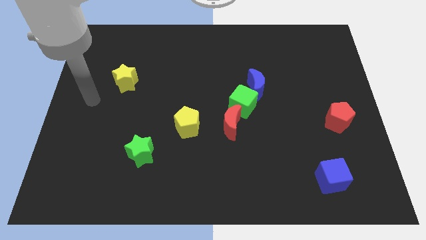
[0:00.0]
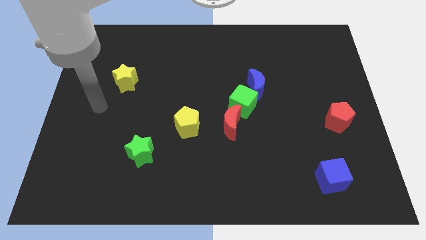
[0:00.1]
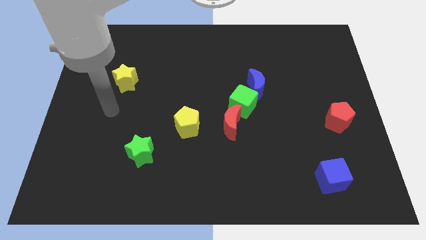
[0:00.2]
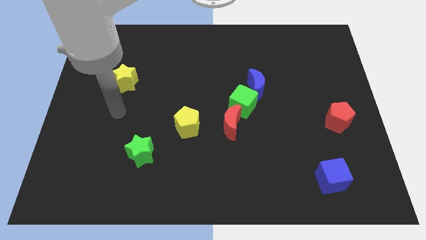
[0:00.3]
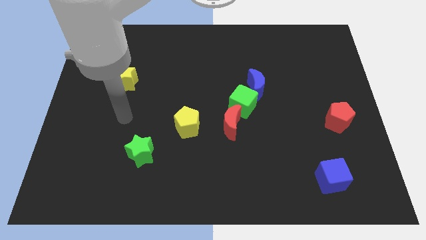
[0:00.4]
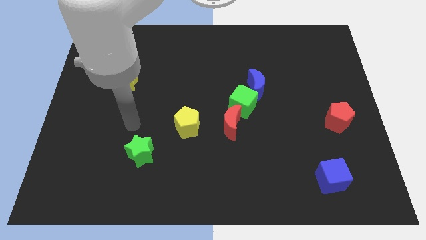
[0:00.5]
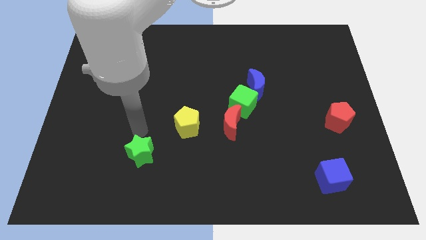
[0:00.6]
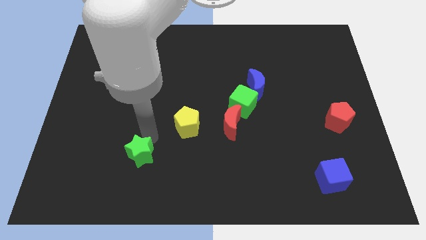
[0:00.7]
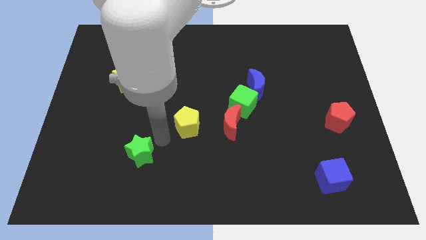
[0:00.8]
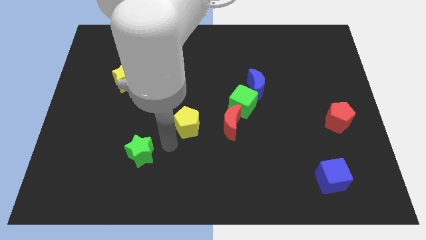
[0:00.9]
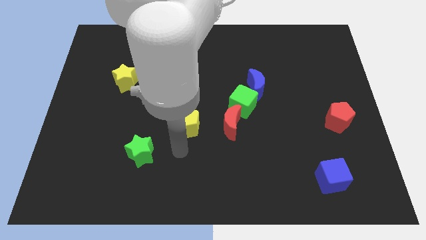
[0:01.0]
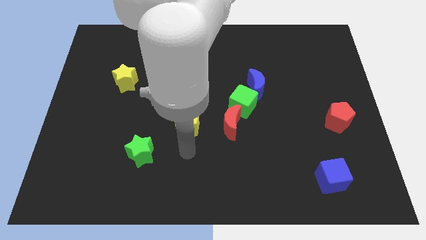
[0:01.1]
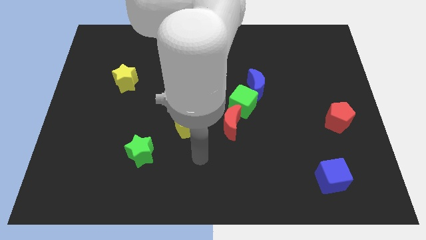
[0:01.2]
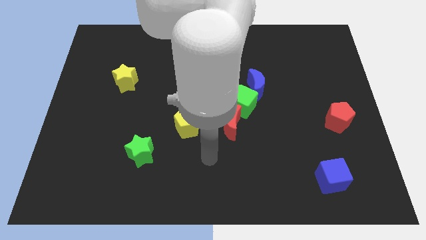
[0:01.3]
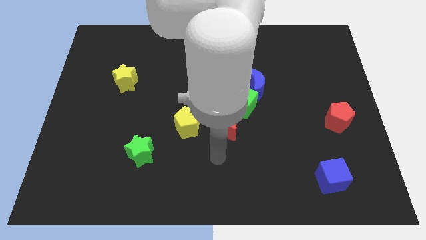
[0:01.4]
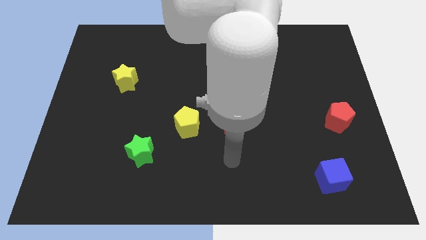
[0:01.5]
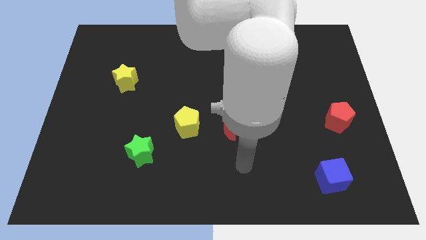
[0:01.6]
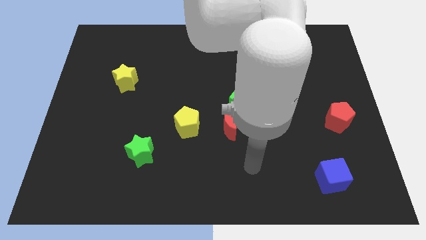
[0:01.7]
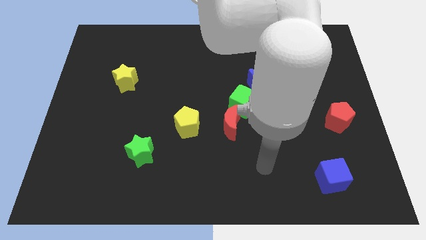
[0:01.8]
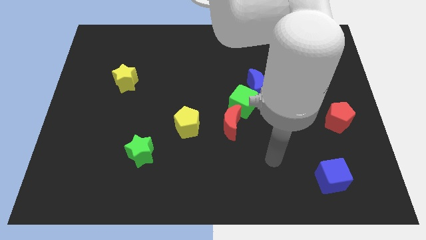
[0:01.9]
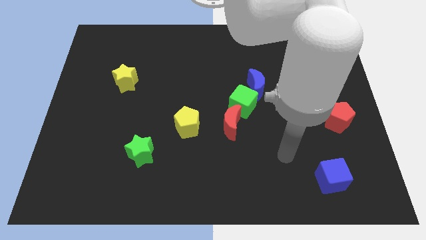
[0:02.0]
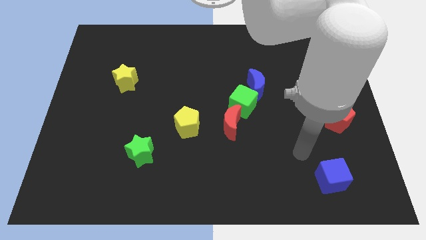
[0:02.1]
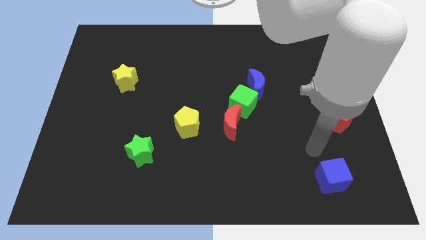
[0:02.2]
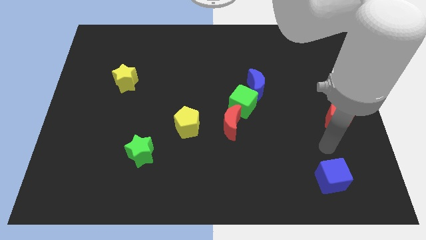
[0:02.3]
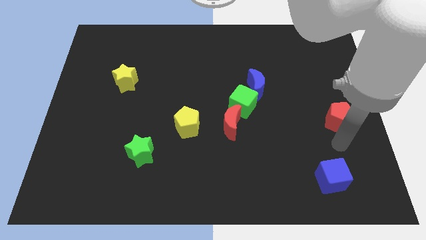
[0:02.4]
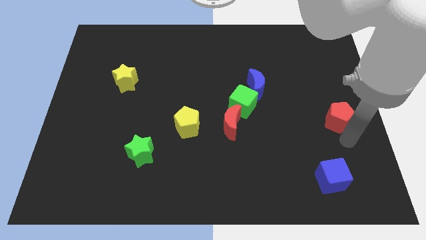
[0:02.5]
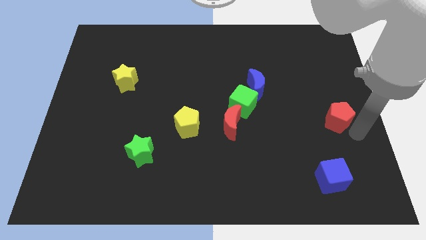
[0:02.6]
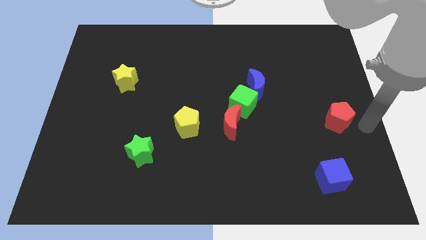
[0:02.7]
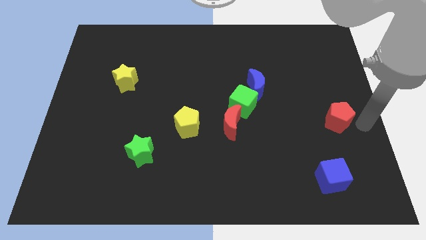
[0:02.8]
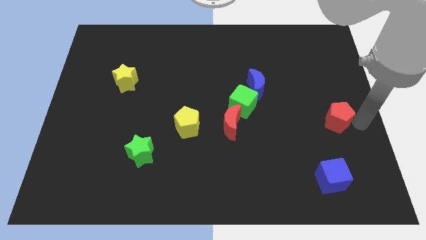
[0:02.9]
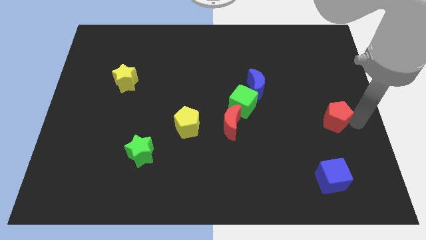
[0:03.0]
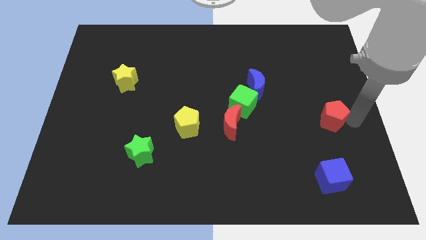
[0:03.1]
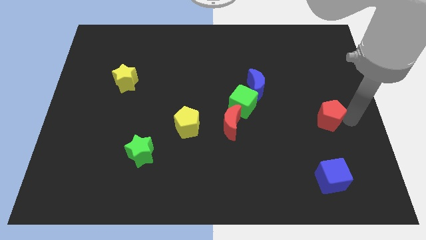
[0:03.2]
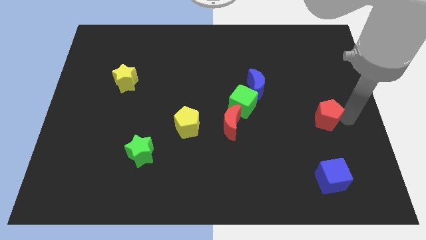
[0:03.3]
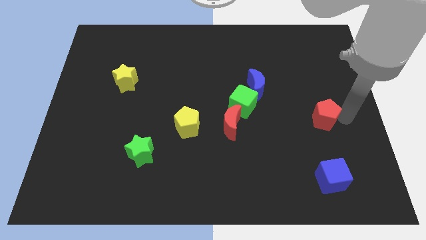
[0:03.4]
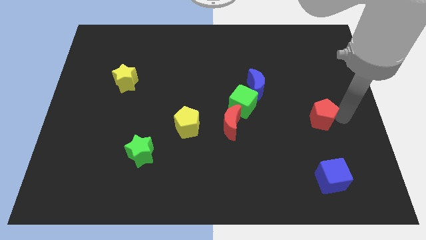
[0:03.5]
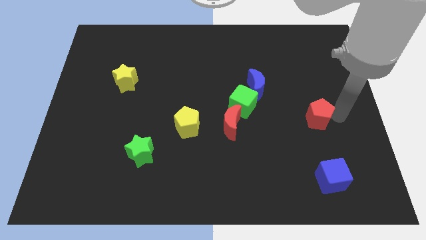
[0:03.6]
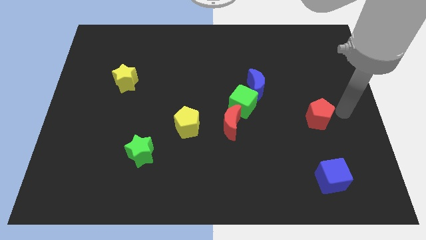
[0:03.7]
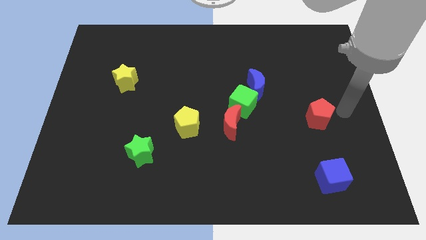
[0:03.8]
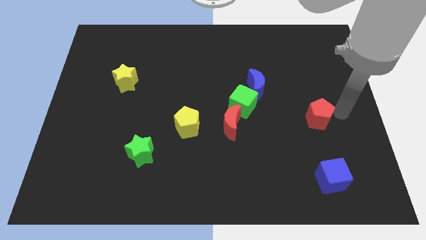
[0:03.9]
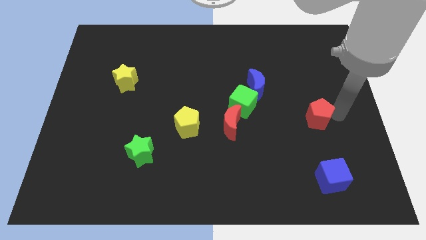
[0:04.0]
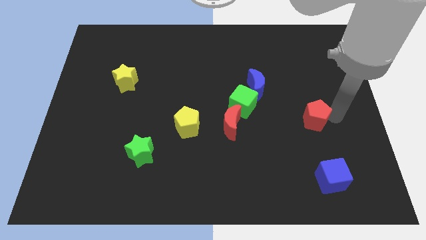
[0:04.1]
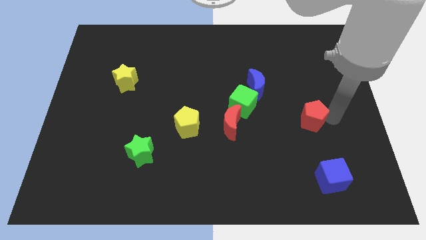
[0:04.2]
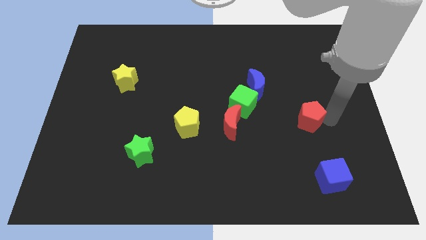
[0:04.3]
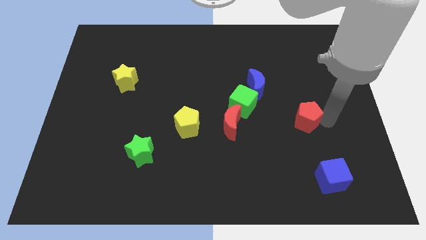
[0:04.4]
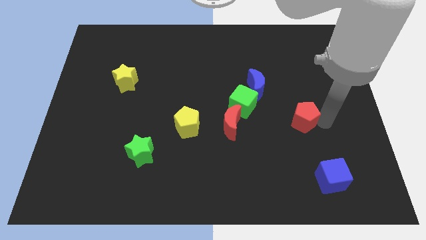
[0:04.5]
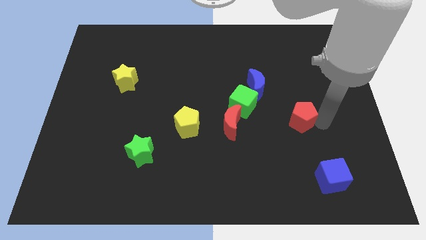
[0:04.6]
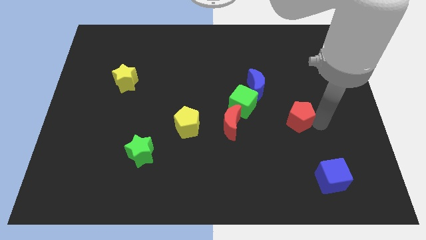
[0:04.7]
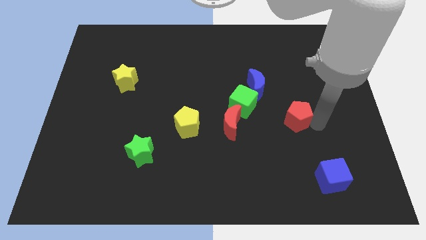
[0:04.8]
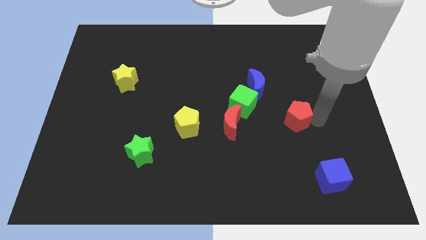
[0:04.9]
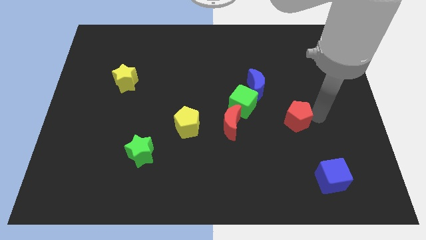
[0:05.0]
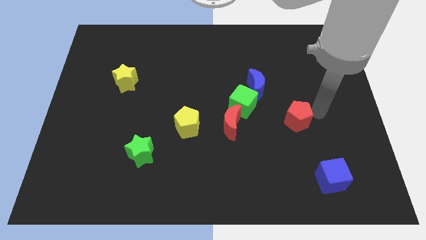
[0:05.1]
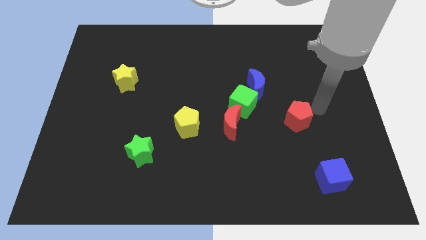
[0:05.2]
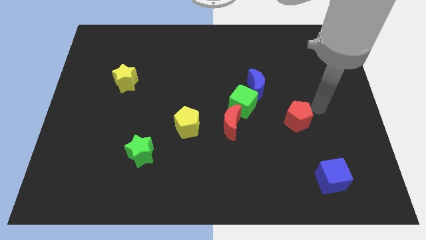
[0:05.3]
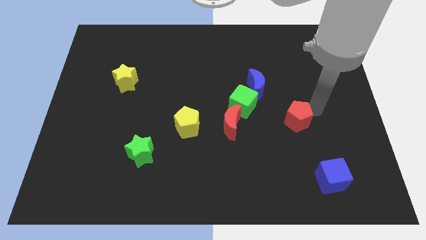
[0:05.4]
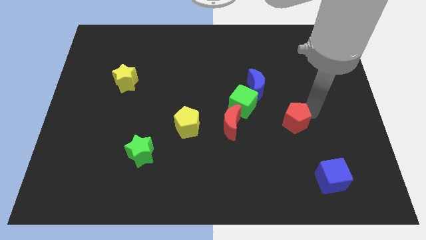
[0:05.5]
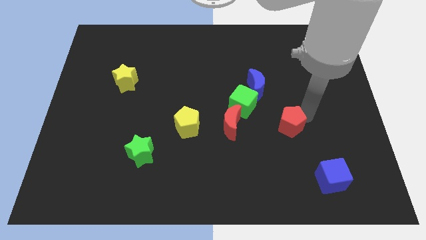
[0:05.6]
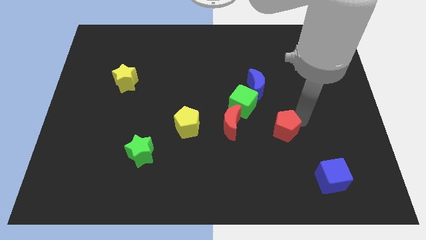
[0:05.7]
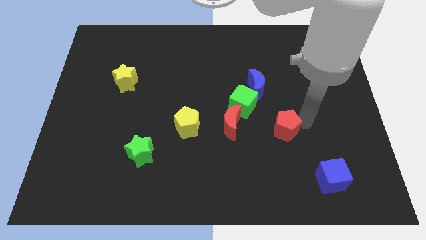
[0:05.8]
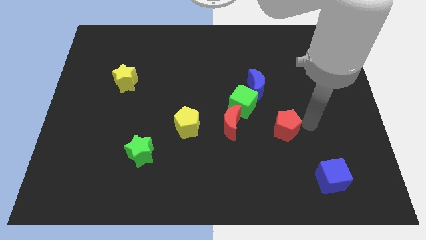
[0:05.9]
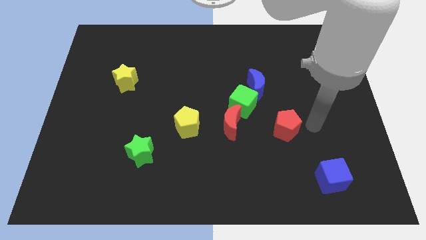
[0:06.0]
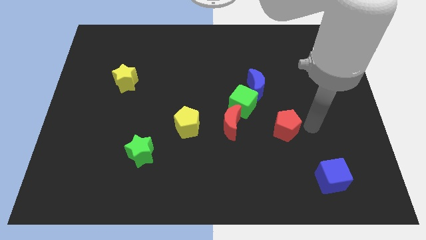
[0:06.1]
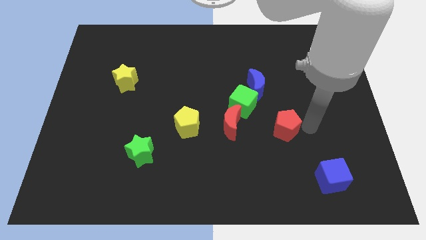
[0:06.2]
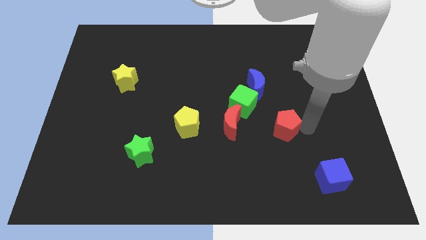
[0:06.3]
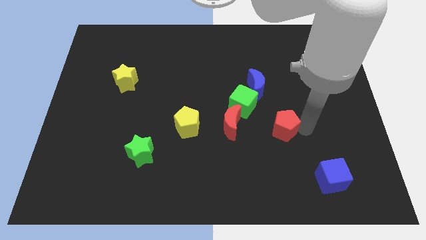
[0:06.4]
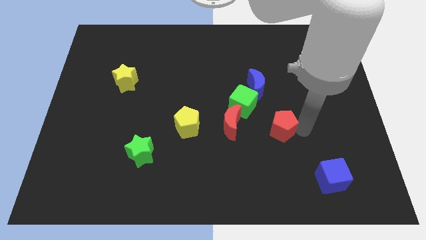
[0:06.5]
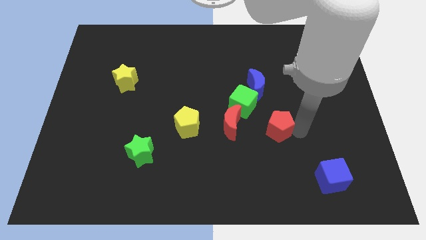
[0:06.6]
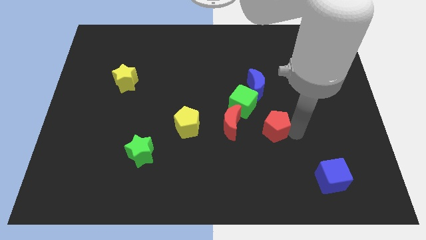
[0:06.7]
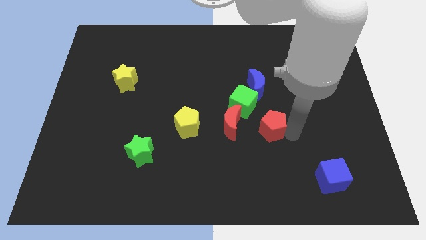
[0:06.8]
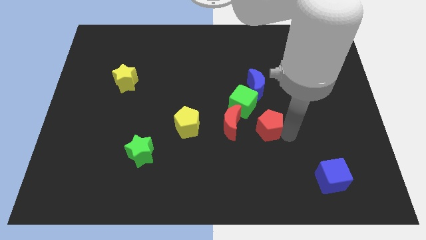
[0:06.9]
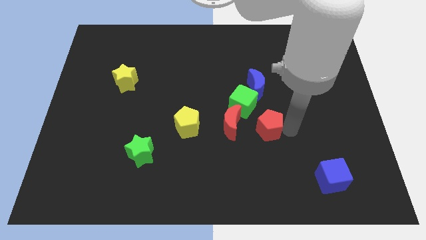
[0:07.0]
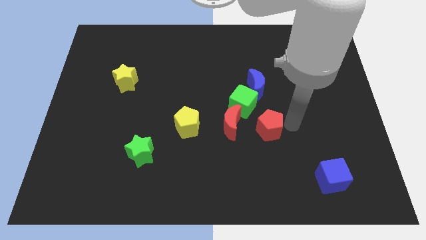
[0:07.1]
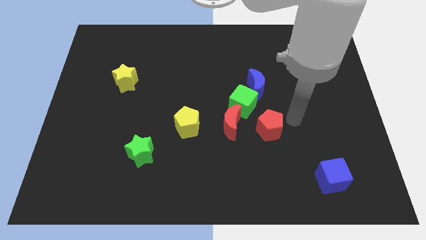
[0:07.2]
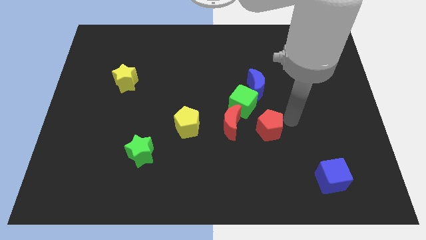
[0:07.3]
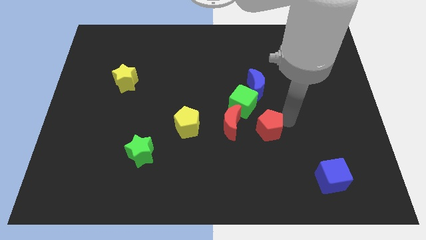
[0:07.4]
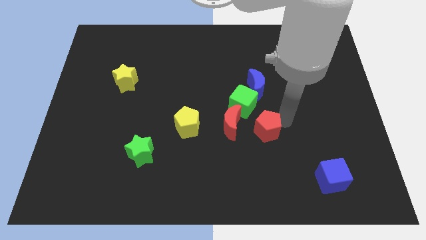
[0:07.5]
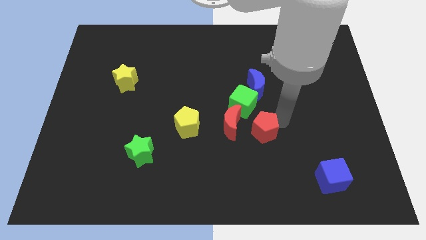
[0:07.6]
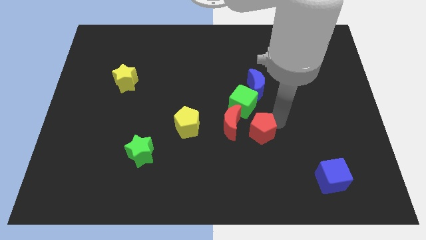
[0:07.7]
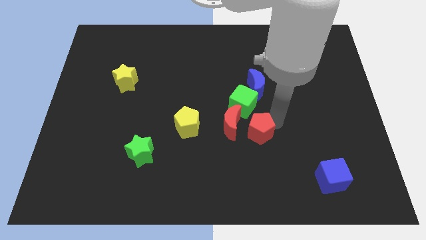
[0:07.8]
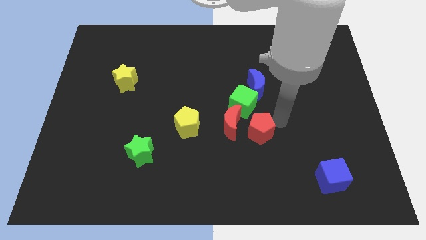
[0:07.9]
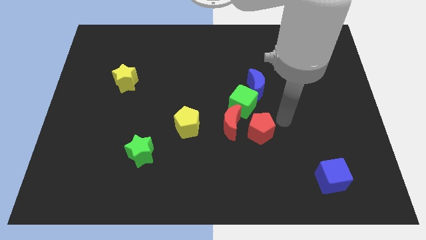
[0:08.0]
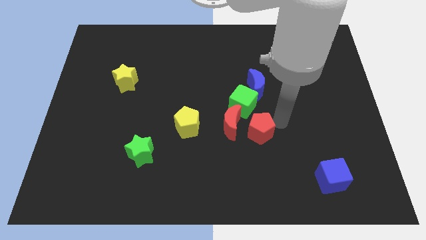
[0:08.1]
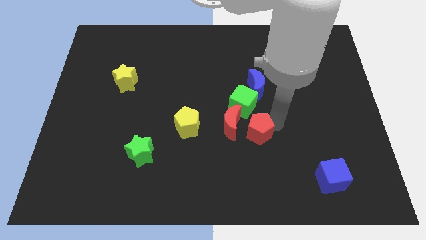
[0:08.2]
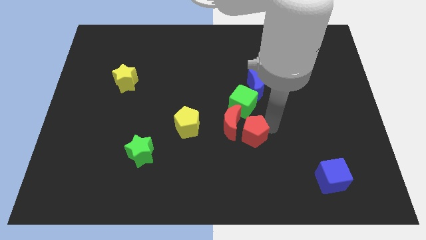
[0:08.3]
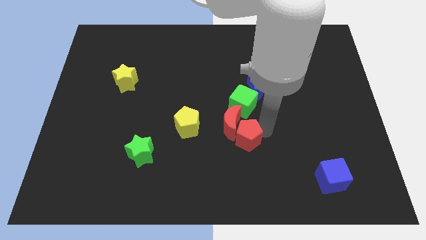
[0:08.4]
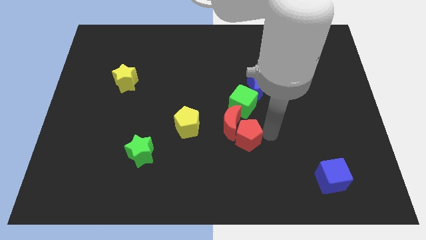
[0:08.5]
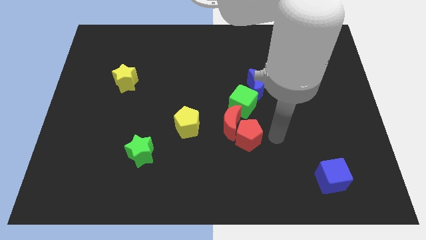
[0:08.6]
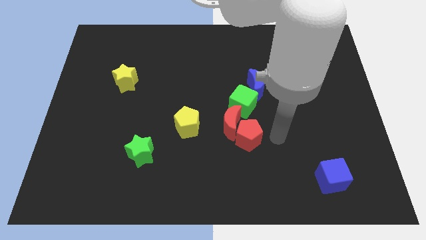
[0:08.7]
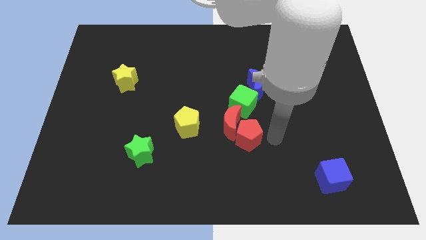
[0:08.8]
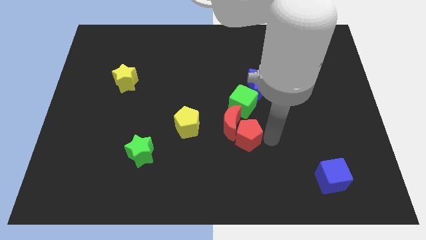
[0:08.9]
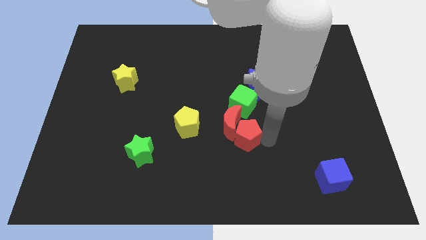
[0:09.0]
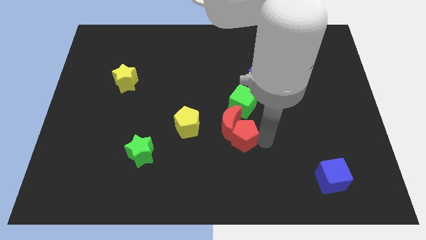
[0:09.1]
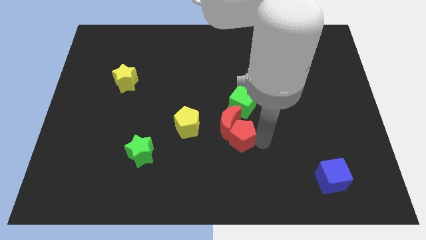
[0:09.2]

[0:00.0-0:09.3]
move the red pentagon to the center of the board
